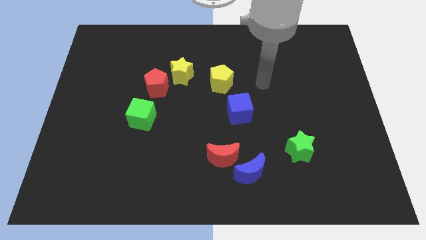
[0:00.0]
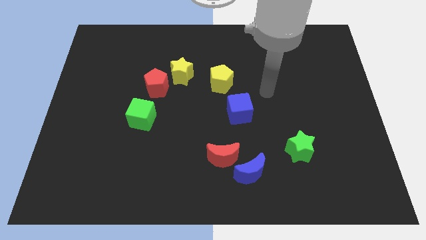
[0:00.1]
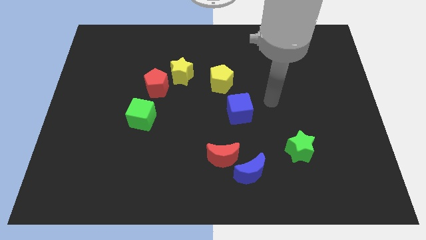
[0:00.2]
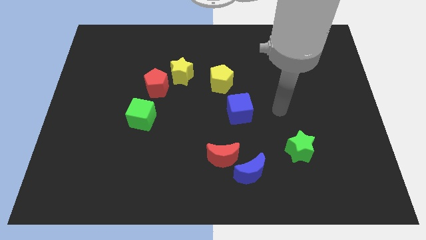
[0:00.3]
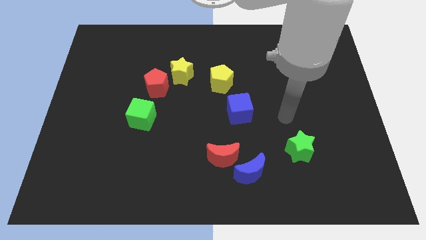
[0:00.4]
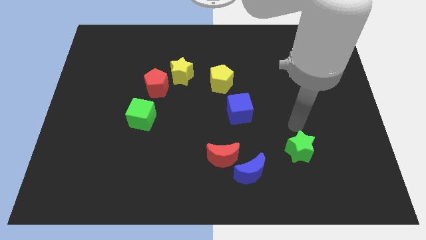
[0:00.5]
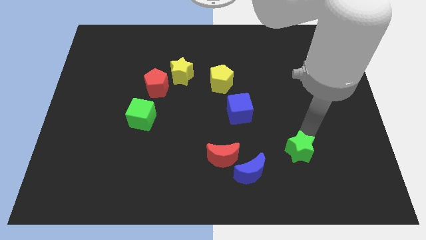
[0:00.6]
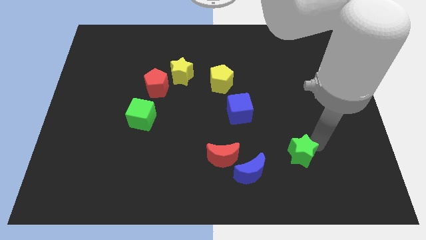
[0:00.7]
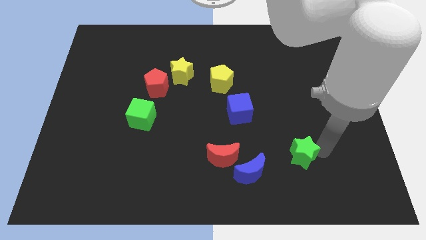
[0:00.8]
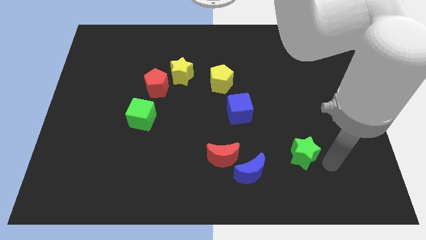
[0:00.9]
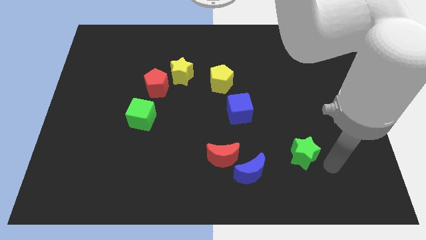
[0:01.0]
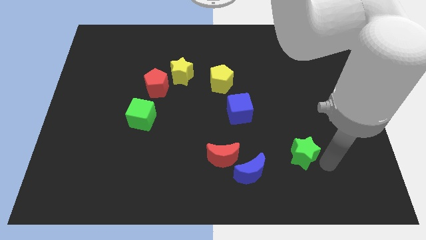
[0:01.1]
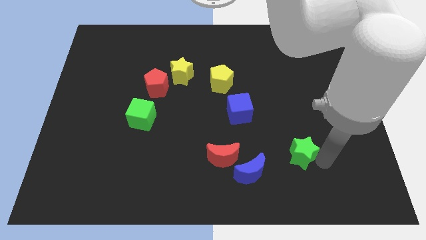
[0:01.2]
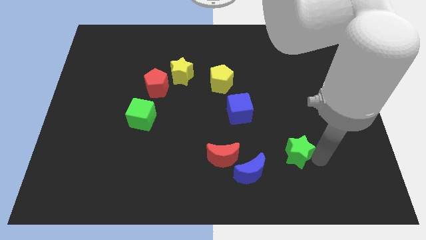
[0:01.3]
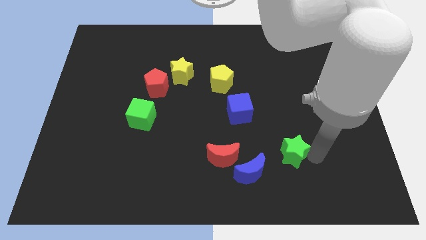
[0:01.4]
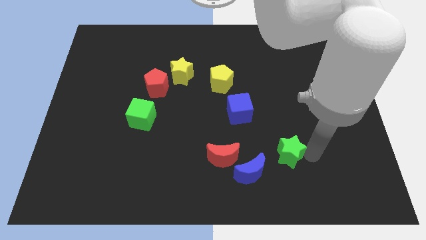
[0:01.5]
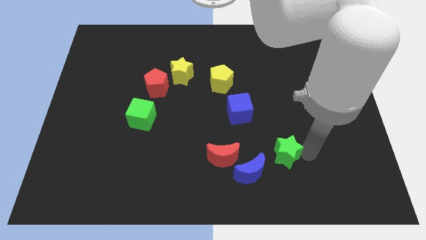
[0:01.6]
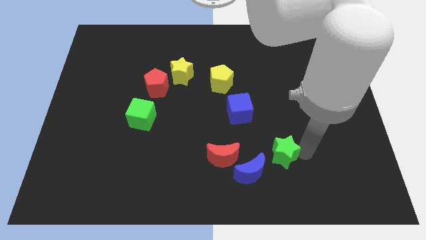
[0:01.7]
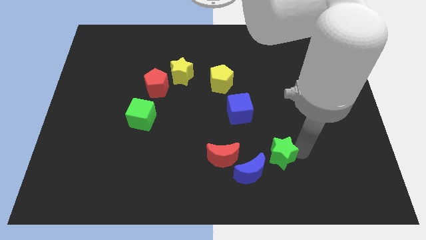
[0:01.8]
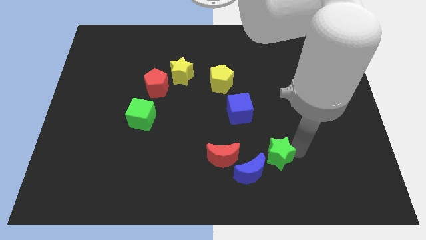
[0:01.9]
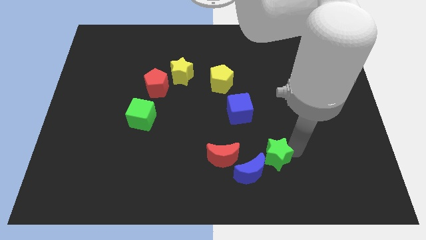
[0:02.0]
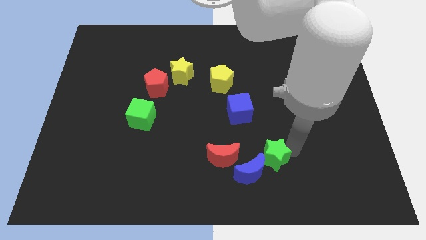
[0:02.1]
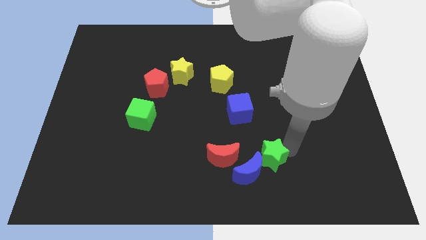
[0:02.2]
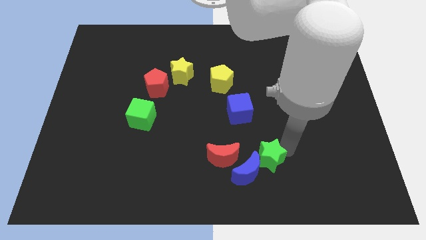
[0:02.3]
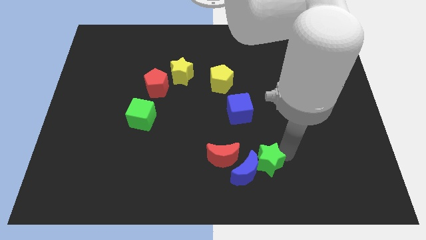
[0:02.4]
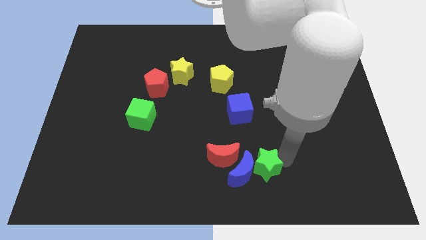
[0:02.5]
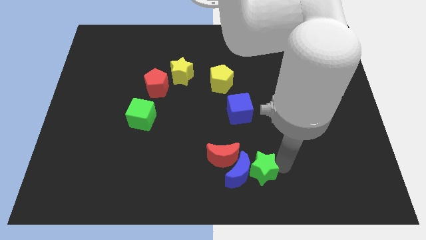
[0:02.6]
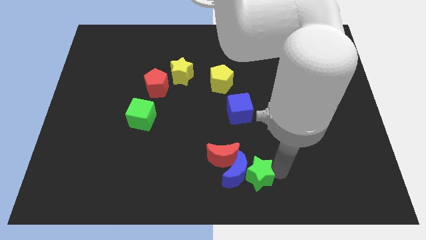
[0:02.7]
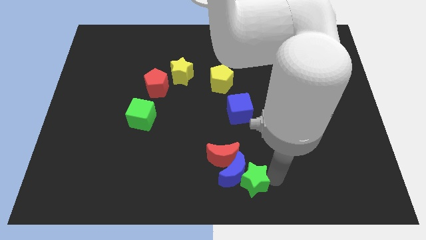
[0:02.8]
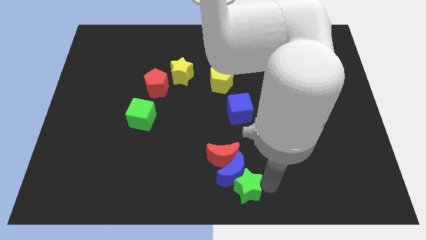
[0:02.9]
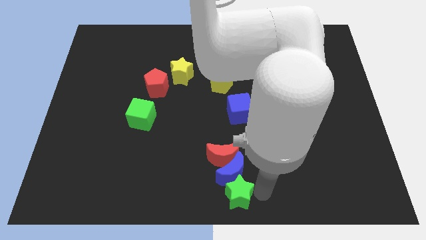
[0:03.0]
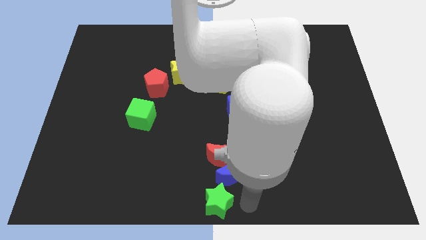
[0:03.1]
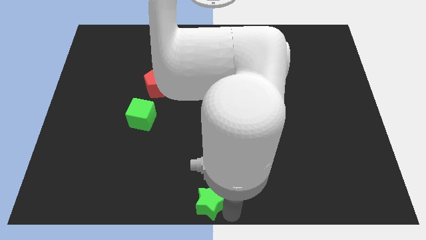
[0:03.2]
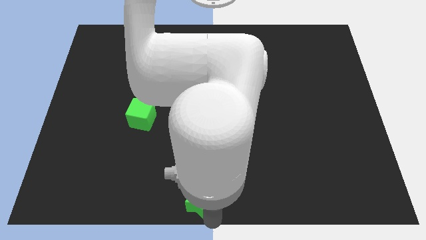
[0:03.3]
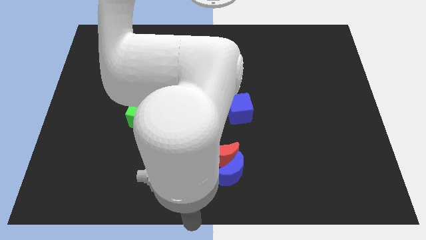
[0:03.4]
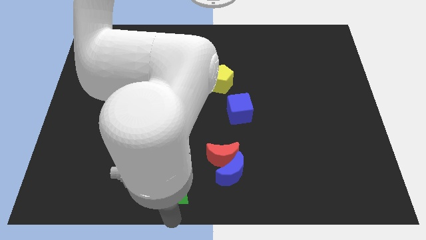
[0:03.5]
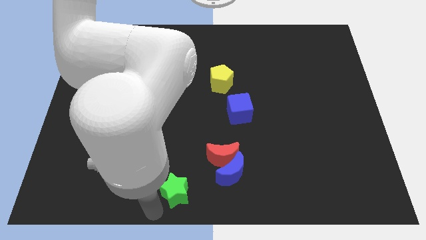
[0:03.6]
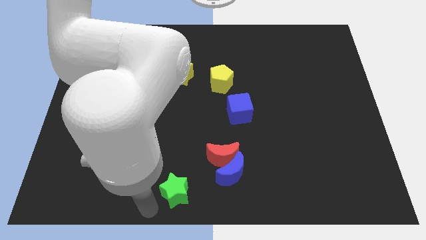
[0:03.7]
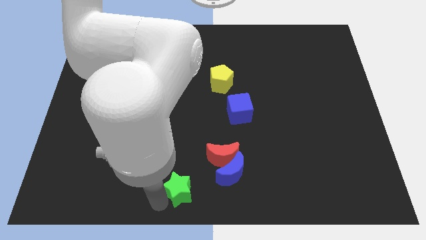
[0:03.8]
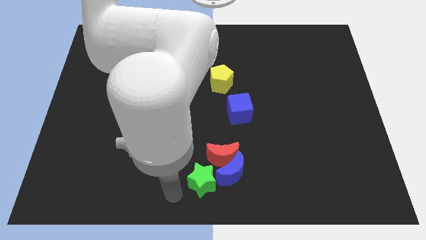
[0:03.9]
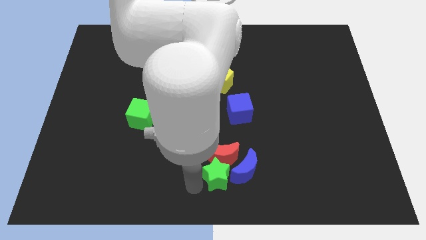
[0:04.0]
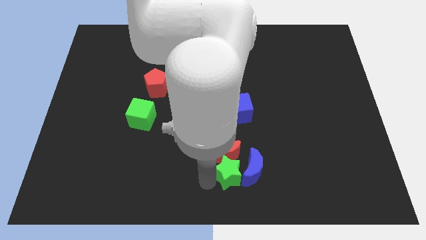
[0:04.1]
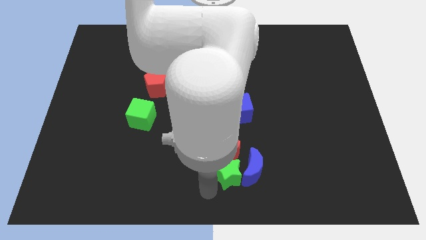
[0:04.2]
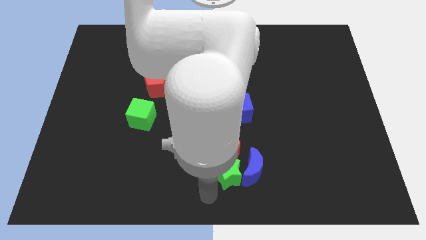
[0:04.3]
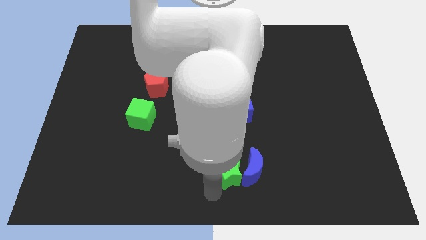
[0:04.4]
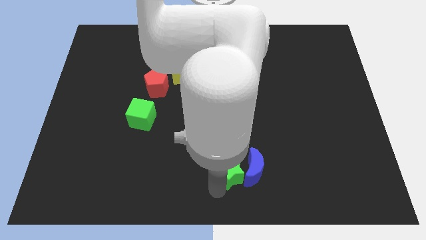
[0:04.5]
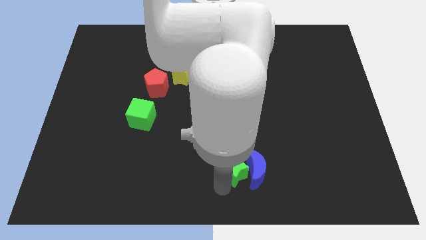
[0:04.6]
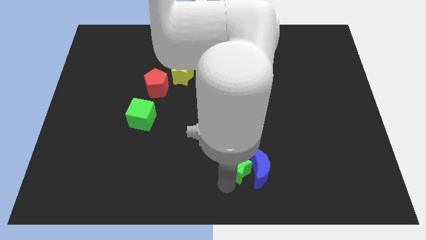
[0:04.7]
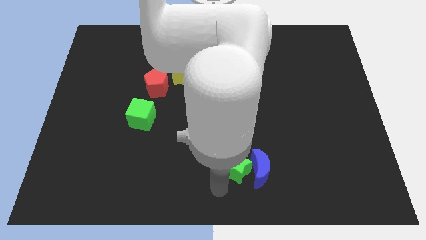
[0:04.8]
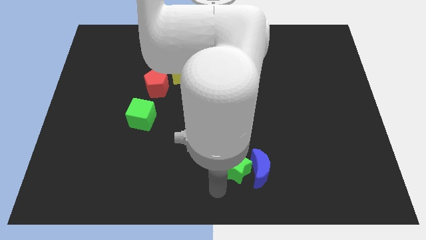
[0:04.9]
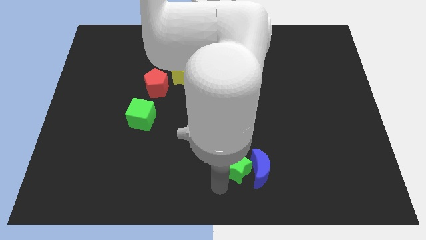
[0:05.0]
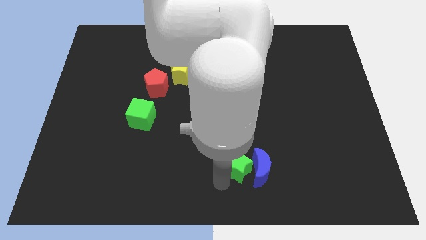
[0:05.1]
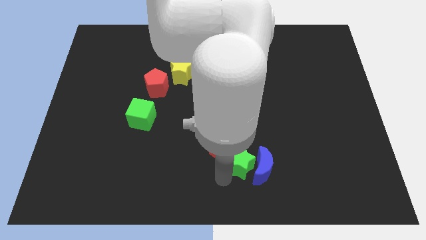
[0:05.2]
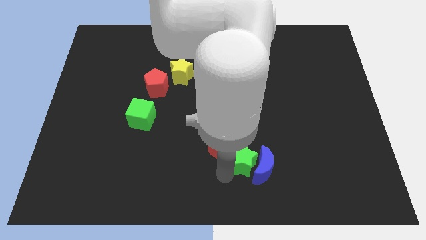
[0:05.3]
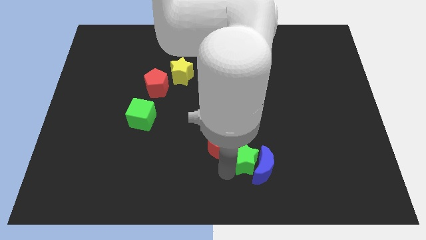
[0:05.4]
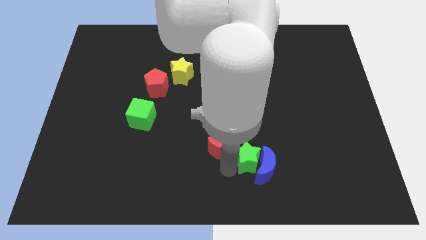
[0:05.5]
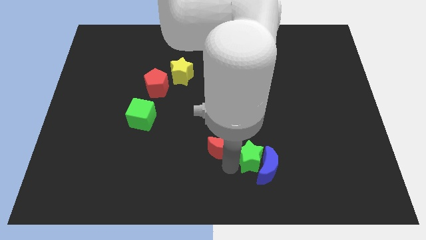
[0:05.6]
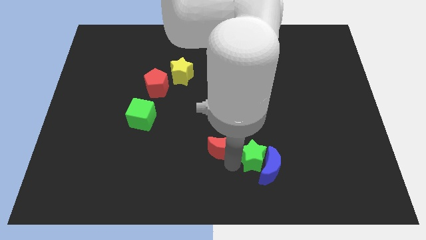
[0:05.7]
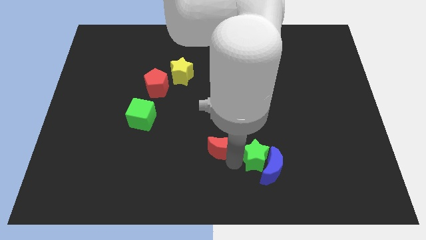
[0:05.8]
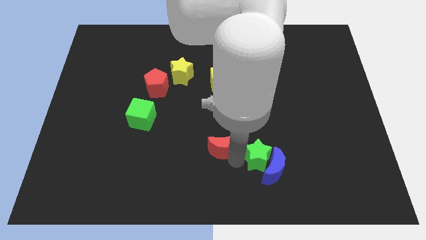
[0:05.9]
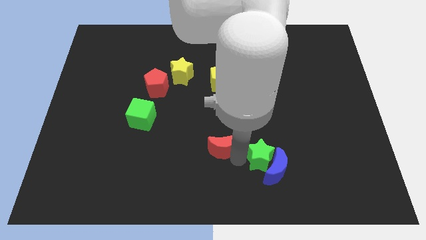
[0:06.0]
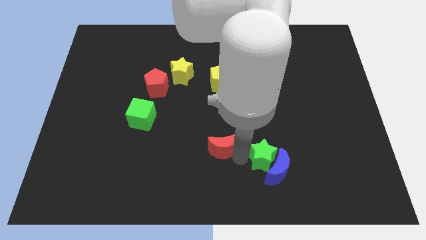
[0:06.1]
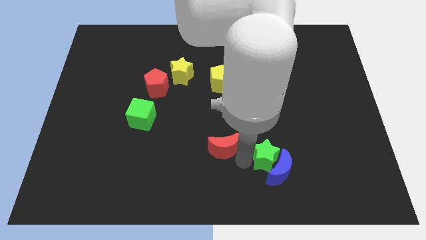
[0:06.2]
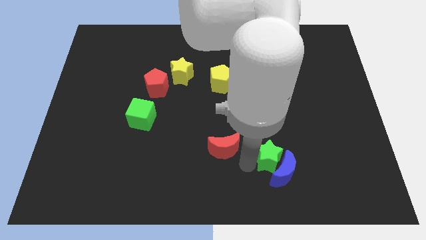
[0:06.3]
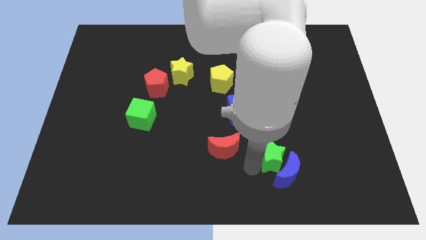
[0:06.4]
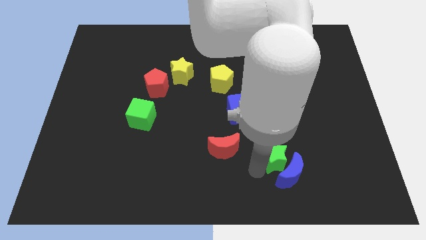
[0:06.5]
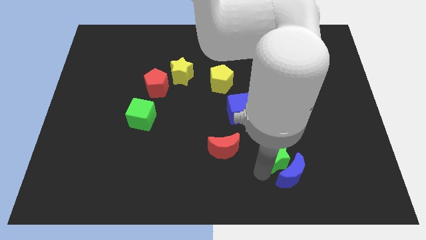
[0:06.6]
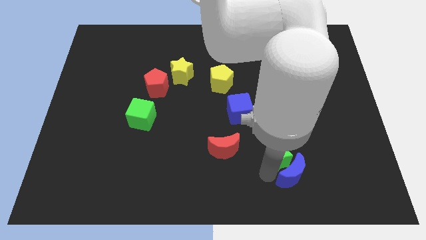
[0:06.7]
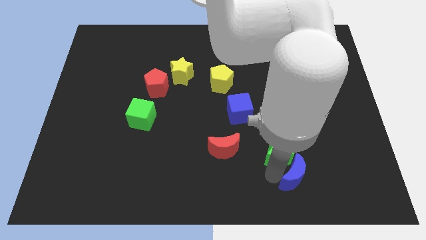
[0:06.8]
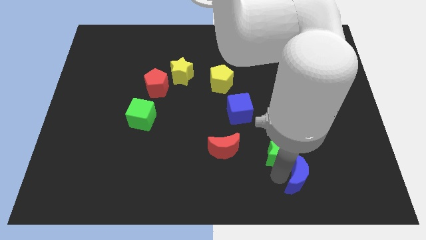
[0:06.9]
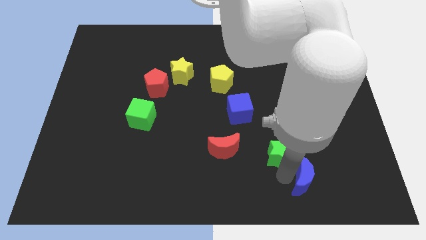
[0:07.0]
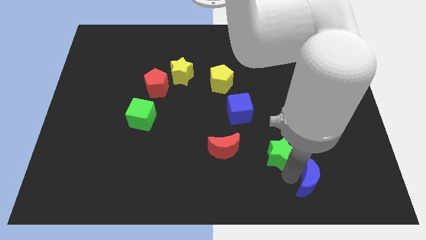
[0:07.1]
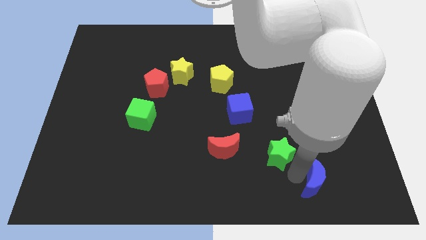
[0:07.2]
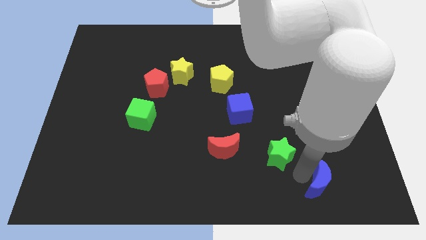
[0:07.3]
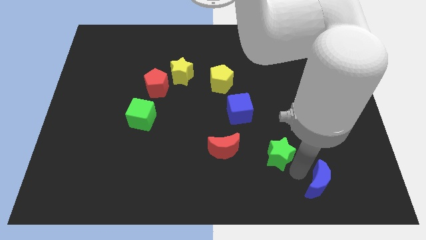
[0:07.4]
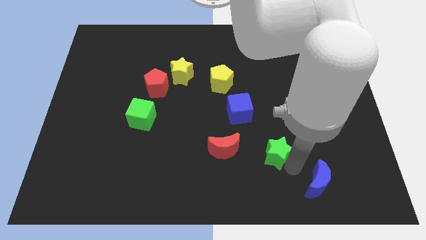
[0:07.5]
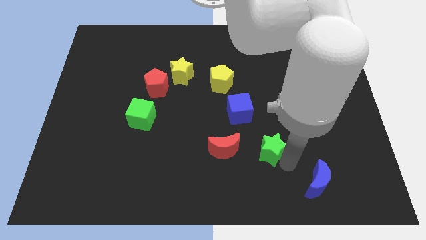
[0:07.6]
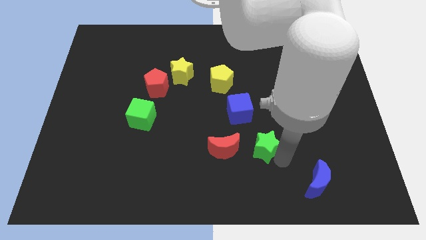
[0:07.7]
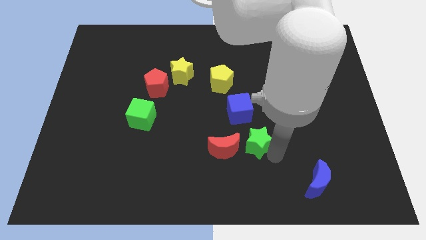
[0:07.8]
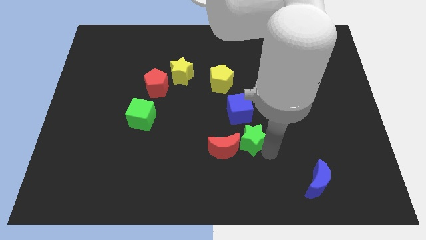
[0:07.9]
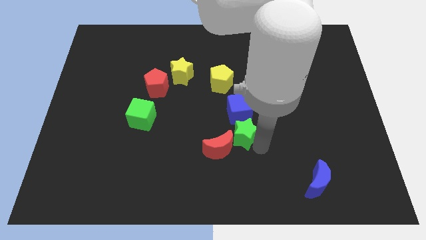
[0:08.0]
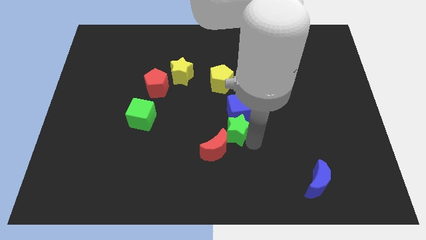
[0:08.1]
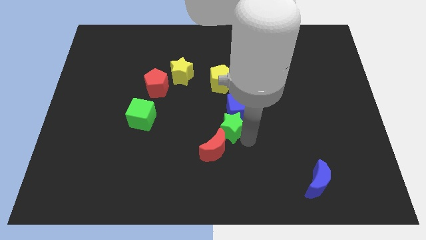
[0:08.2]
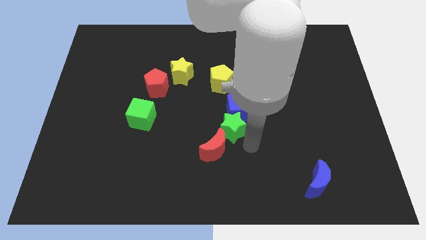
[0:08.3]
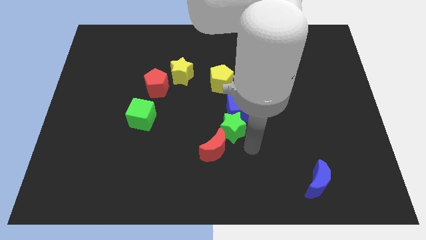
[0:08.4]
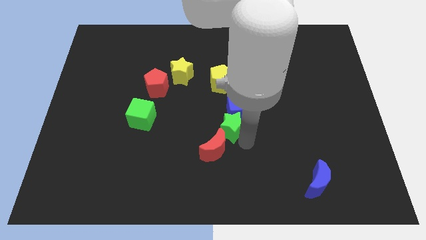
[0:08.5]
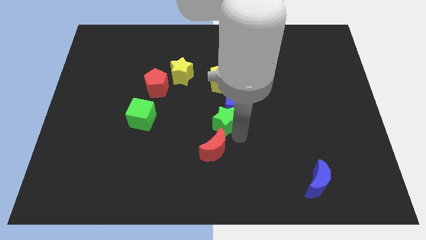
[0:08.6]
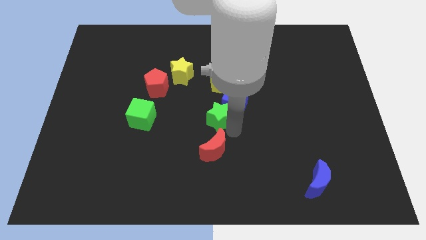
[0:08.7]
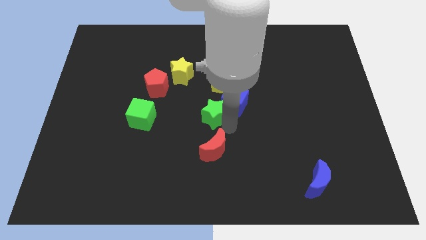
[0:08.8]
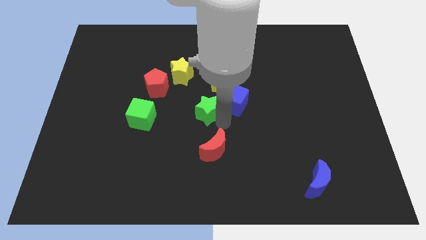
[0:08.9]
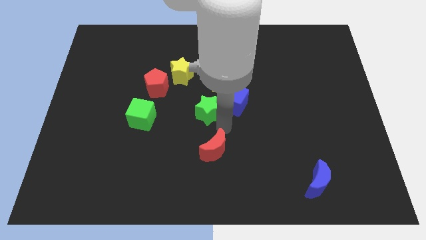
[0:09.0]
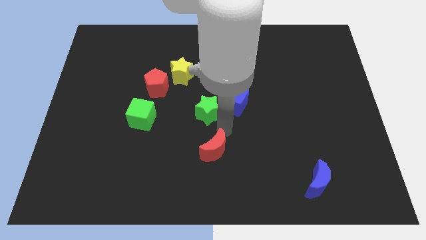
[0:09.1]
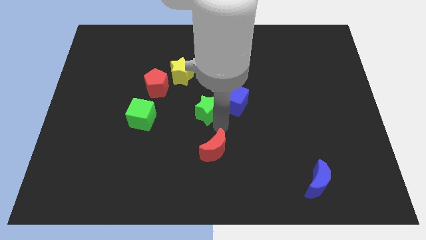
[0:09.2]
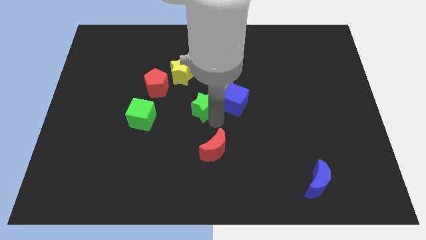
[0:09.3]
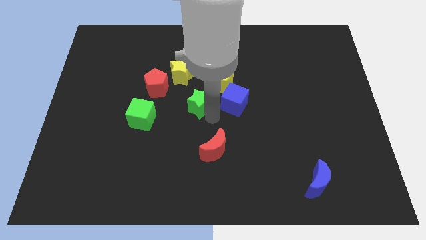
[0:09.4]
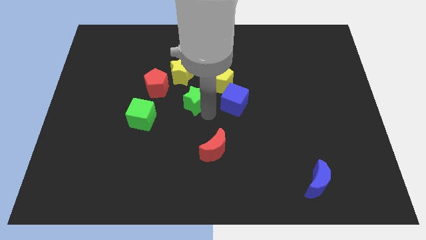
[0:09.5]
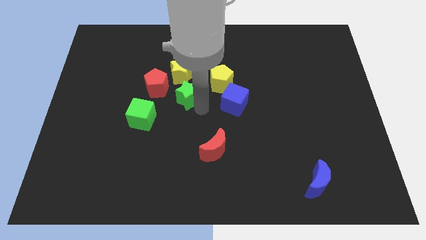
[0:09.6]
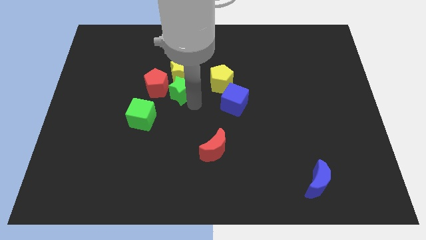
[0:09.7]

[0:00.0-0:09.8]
push the green star towards the yellow star
